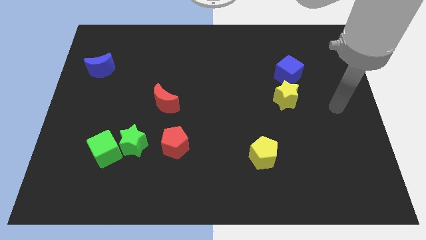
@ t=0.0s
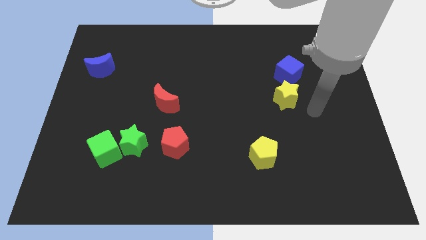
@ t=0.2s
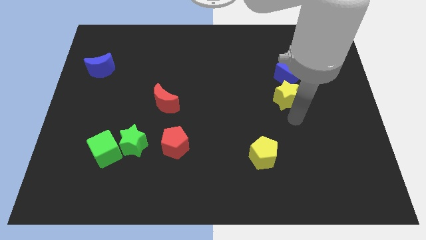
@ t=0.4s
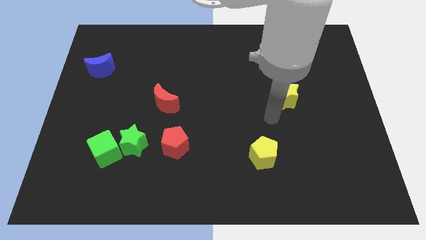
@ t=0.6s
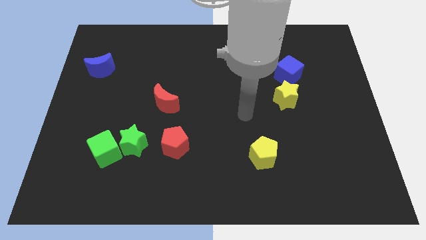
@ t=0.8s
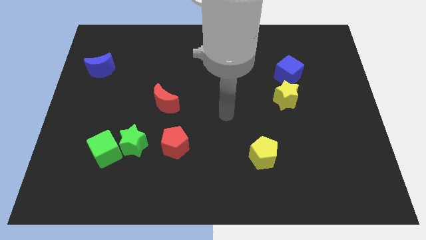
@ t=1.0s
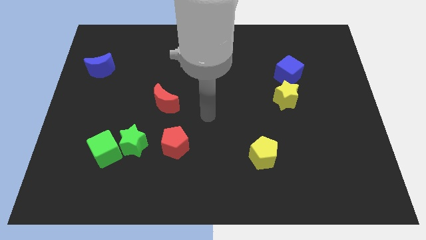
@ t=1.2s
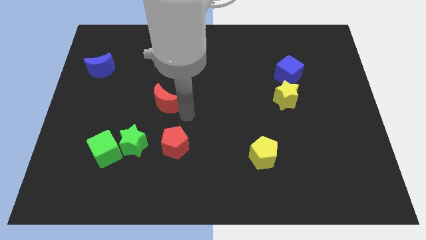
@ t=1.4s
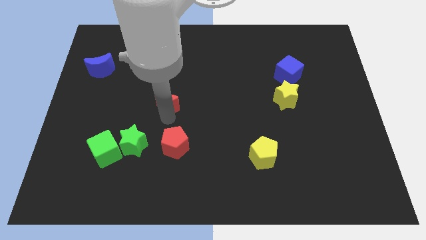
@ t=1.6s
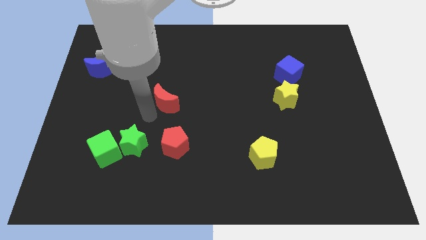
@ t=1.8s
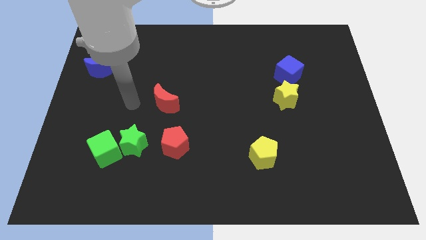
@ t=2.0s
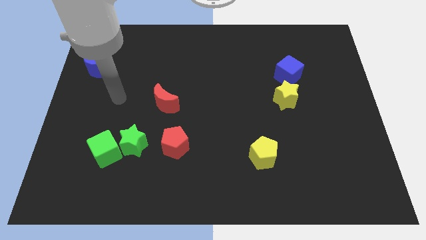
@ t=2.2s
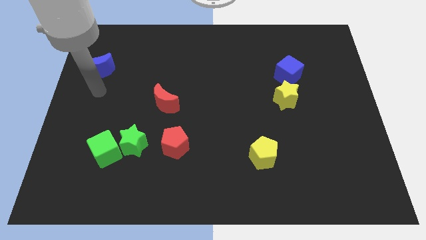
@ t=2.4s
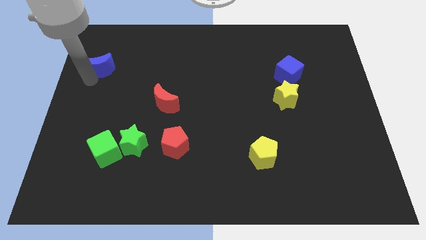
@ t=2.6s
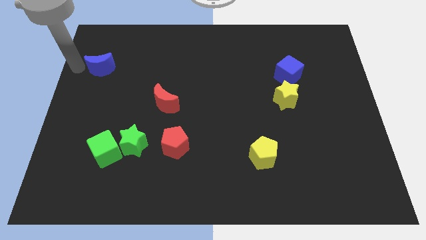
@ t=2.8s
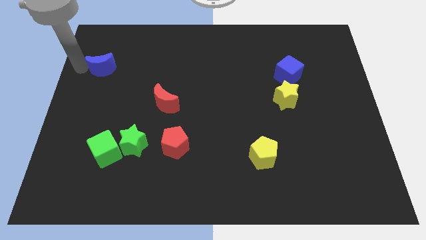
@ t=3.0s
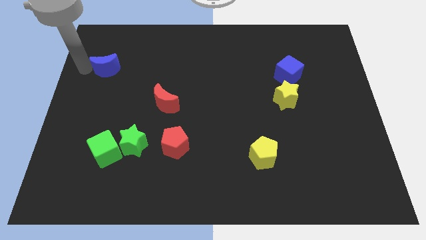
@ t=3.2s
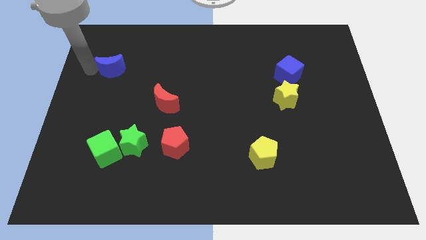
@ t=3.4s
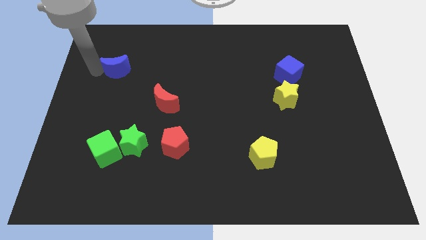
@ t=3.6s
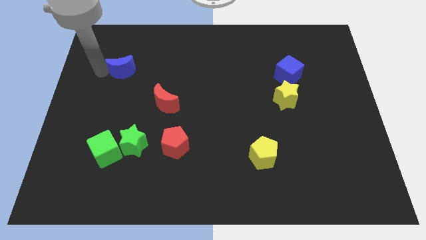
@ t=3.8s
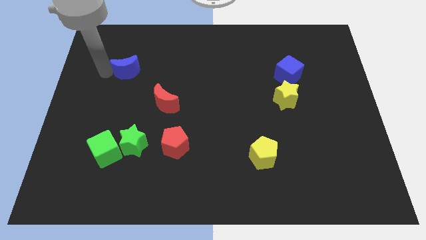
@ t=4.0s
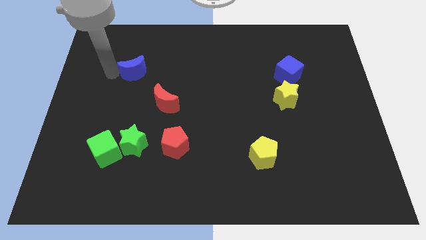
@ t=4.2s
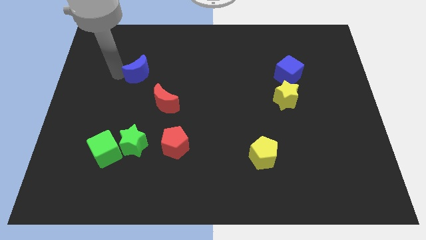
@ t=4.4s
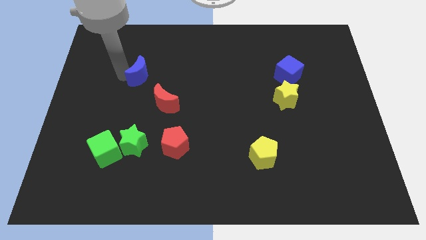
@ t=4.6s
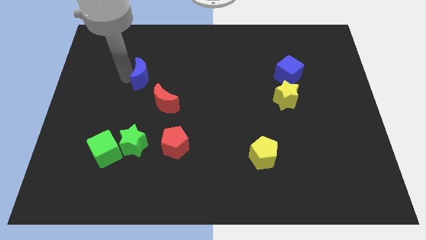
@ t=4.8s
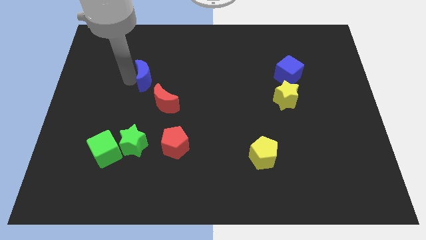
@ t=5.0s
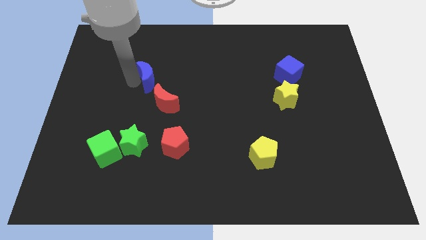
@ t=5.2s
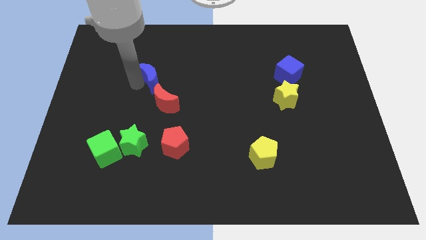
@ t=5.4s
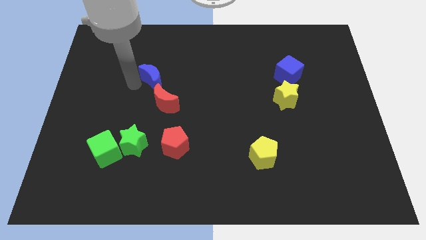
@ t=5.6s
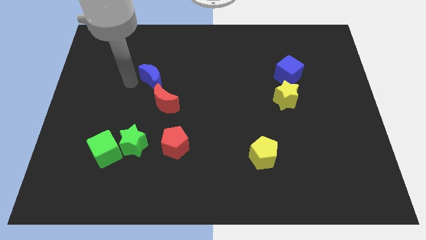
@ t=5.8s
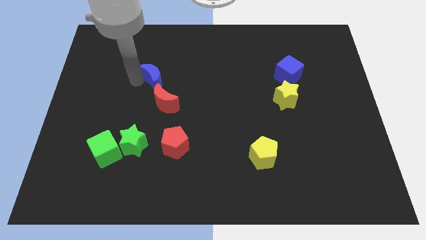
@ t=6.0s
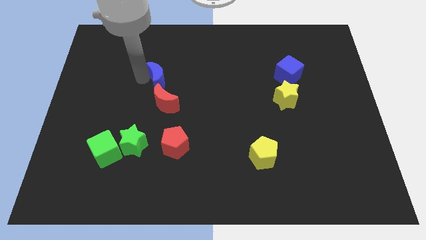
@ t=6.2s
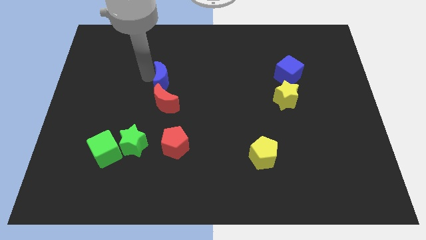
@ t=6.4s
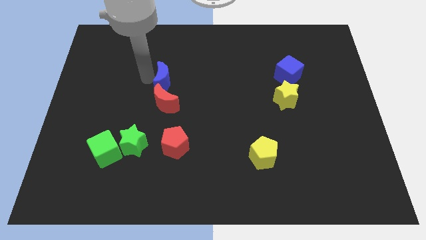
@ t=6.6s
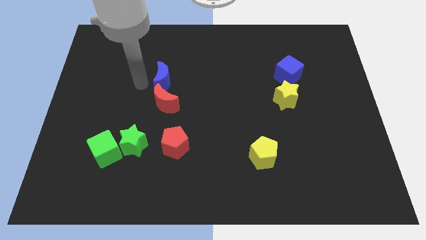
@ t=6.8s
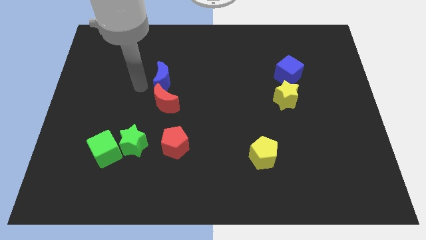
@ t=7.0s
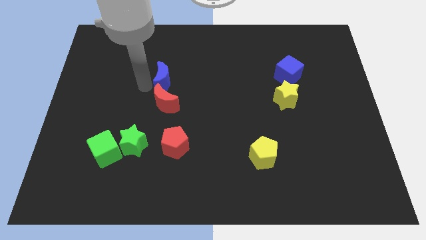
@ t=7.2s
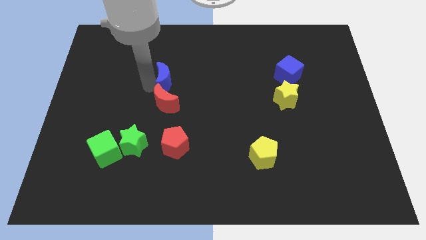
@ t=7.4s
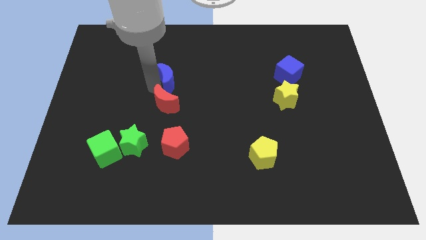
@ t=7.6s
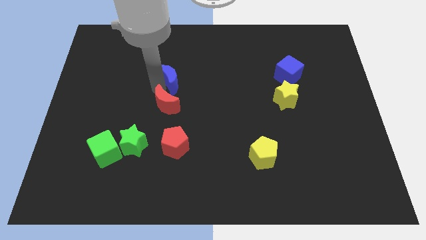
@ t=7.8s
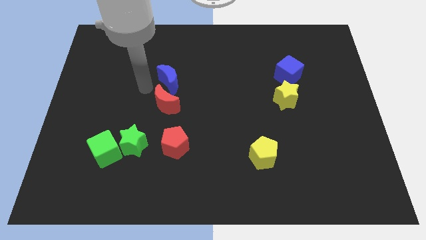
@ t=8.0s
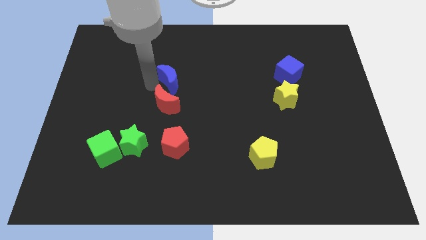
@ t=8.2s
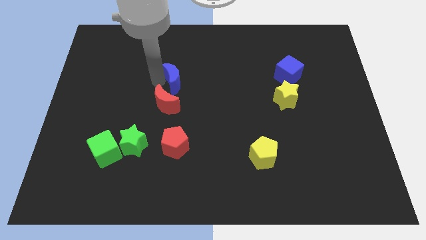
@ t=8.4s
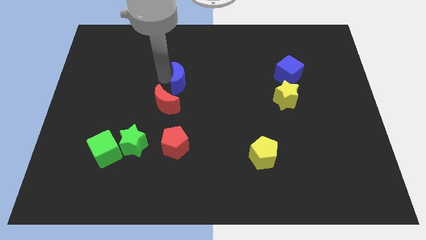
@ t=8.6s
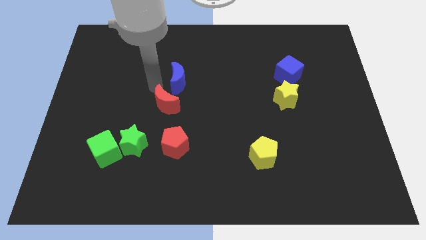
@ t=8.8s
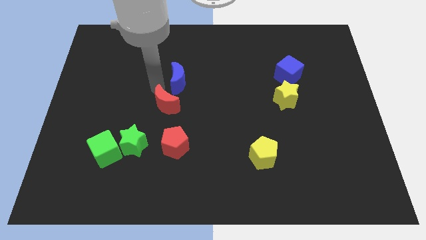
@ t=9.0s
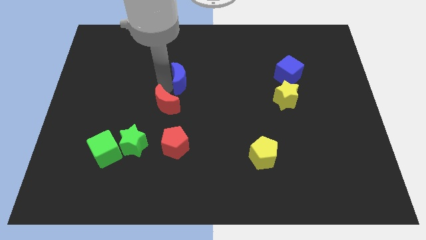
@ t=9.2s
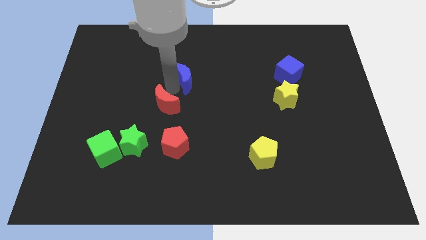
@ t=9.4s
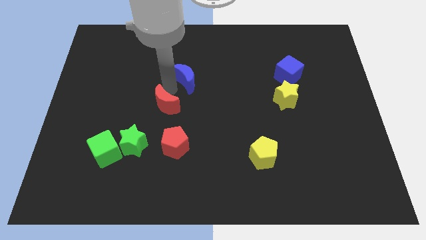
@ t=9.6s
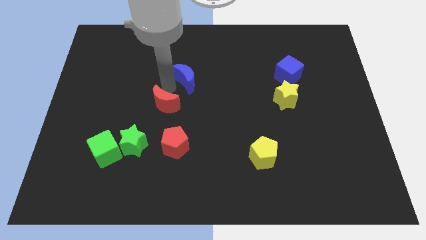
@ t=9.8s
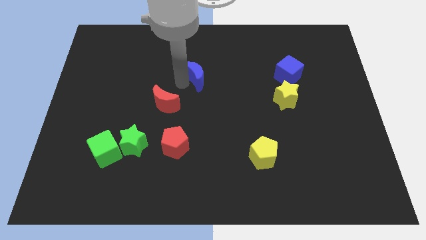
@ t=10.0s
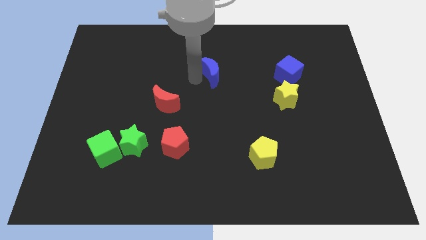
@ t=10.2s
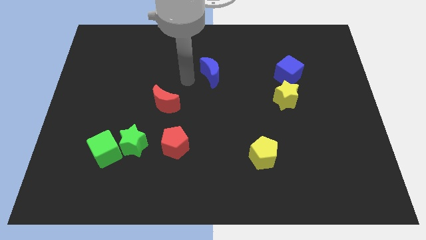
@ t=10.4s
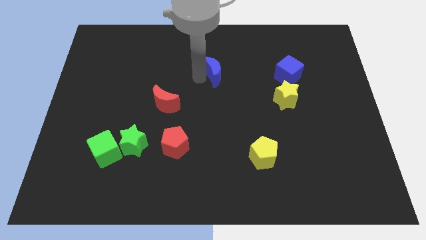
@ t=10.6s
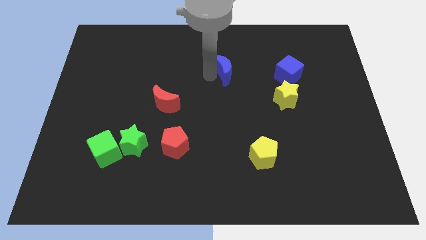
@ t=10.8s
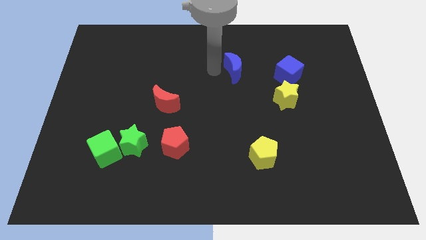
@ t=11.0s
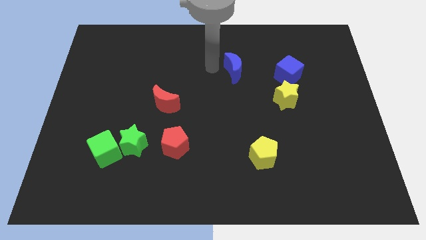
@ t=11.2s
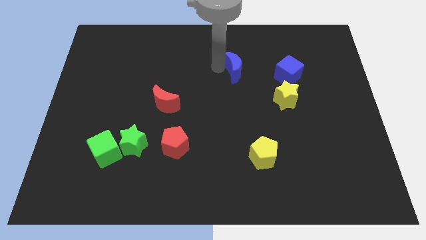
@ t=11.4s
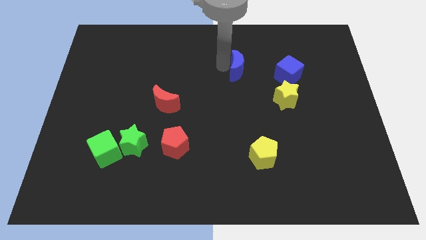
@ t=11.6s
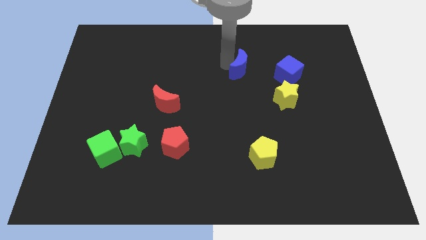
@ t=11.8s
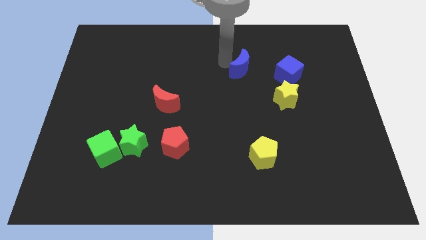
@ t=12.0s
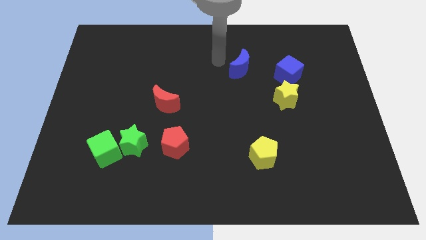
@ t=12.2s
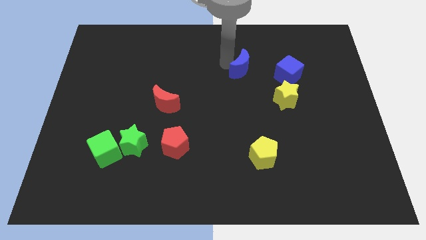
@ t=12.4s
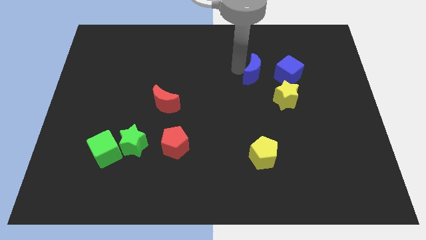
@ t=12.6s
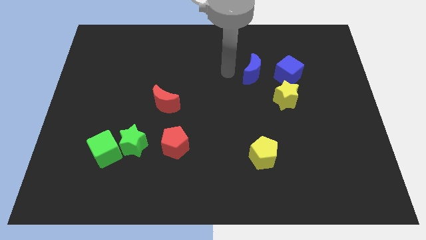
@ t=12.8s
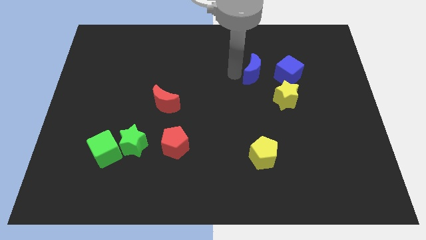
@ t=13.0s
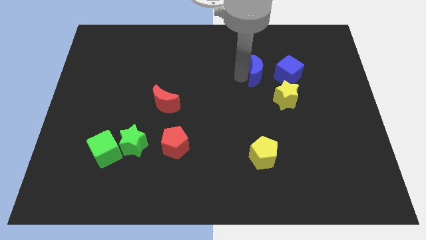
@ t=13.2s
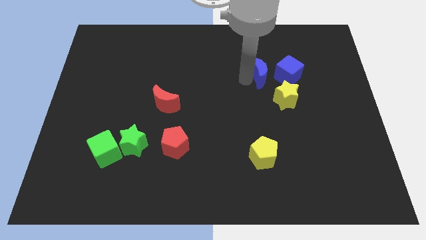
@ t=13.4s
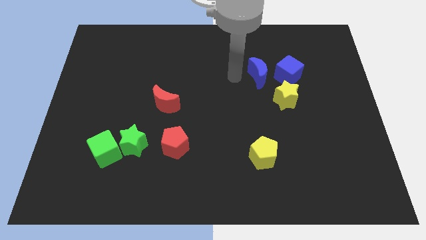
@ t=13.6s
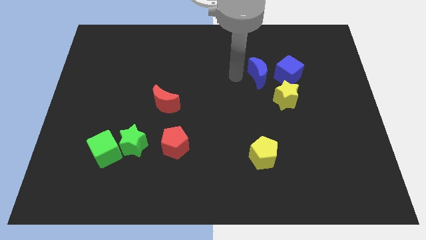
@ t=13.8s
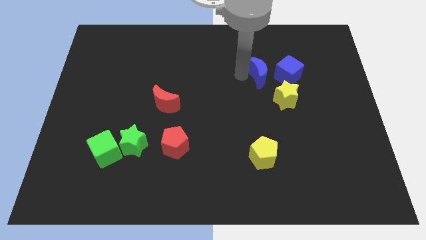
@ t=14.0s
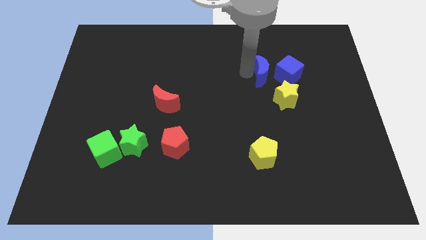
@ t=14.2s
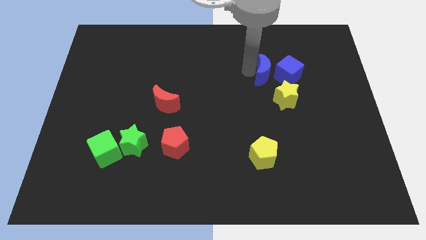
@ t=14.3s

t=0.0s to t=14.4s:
move the blue moon towards the blue cube
